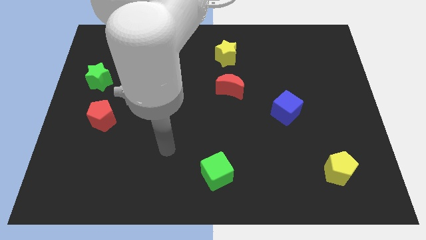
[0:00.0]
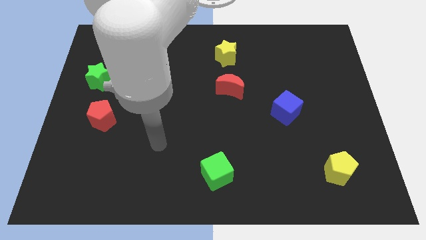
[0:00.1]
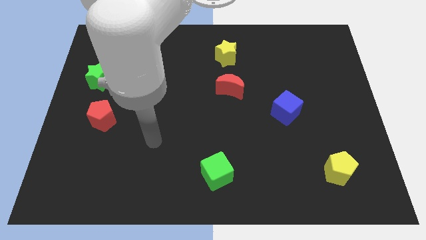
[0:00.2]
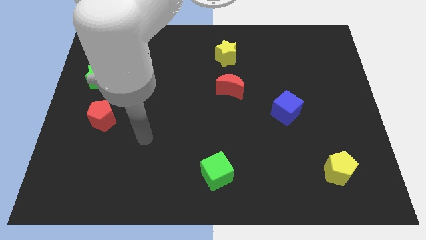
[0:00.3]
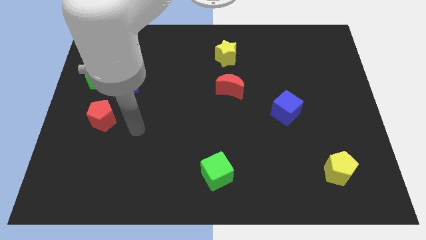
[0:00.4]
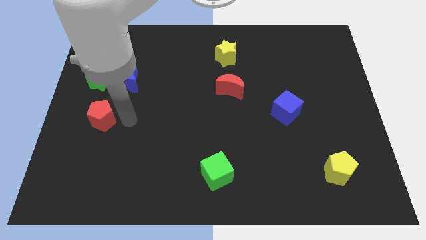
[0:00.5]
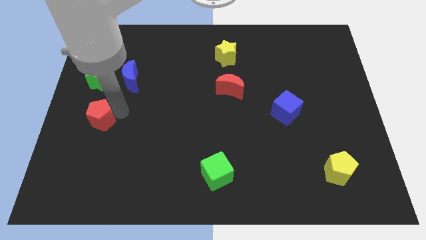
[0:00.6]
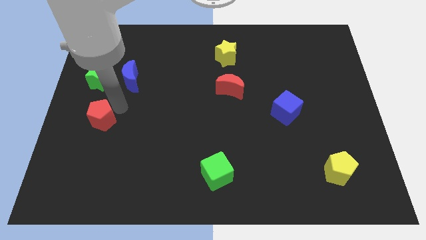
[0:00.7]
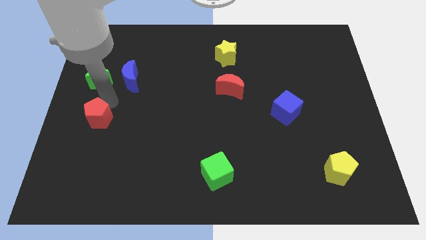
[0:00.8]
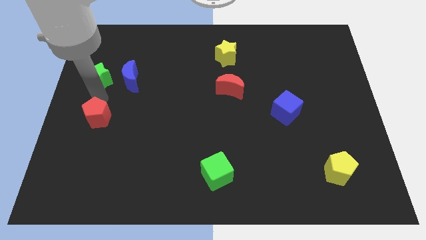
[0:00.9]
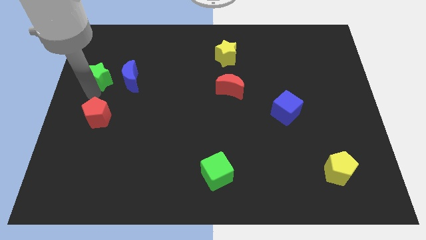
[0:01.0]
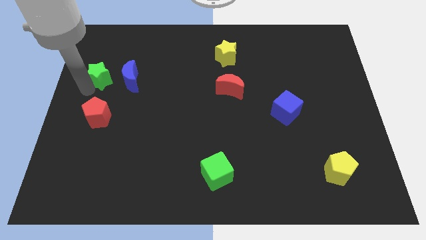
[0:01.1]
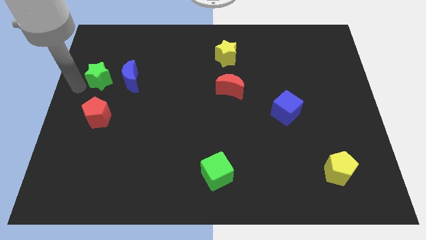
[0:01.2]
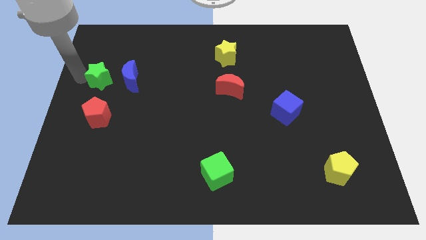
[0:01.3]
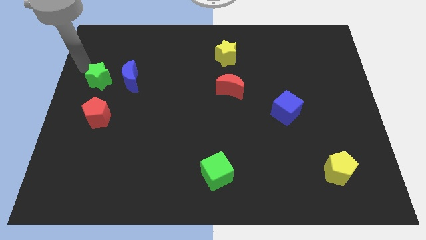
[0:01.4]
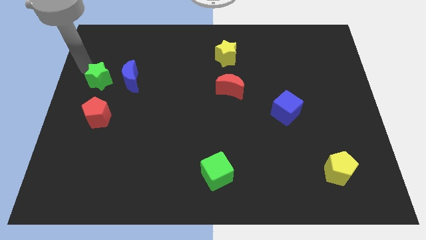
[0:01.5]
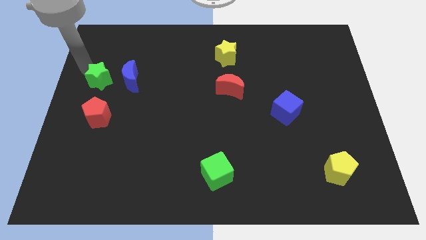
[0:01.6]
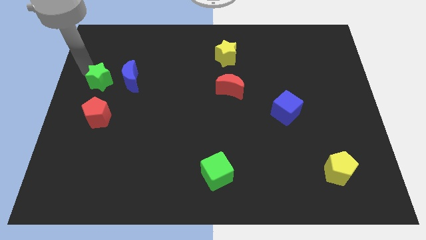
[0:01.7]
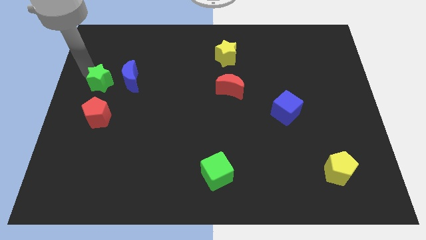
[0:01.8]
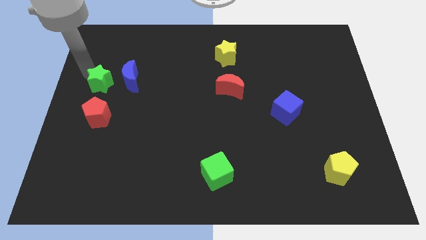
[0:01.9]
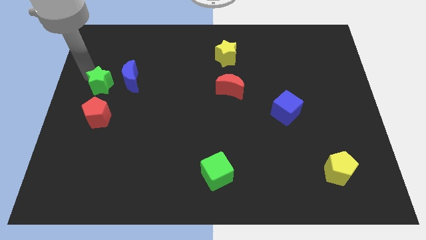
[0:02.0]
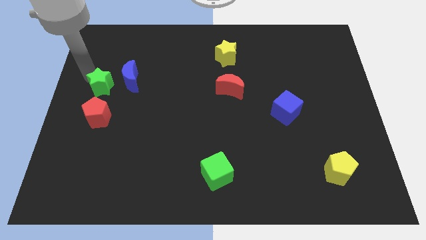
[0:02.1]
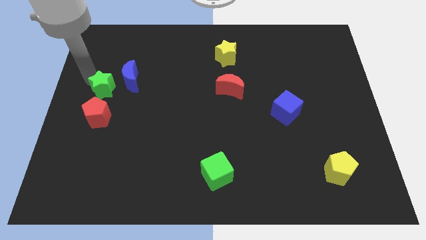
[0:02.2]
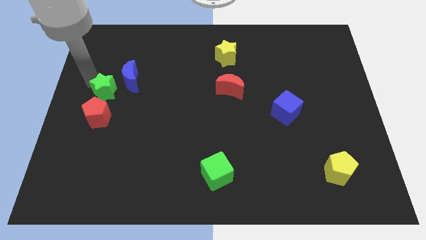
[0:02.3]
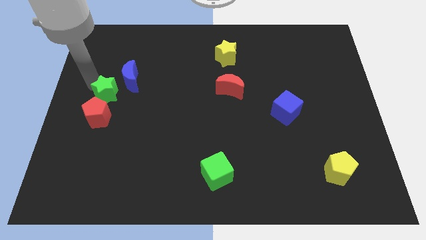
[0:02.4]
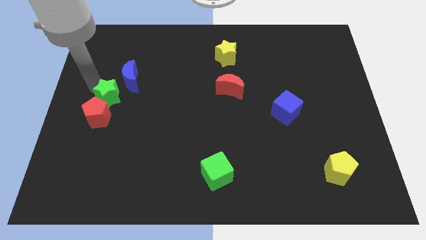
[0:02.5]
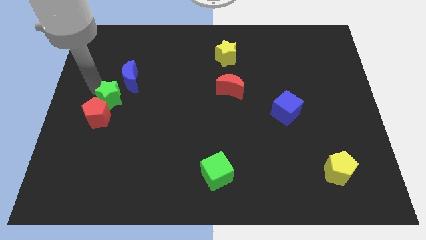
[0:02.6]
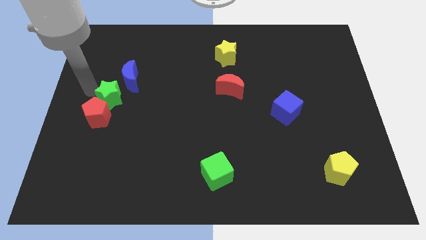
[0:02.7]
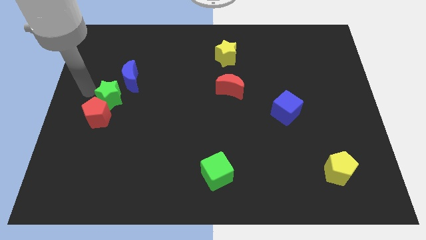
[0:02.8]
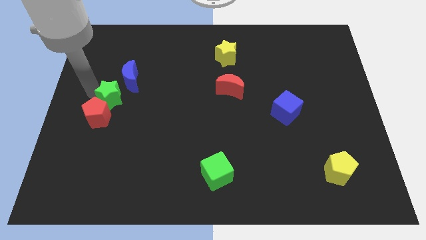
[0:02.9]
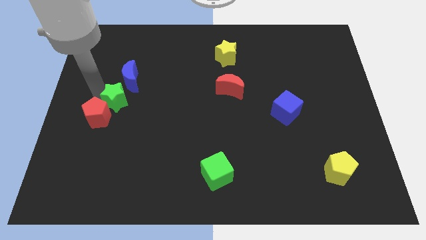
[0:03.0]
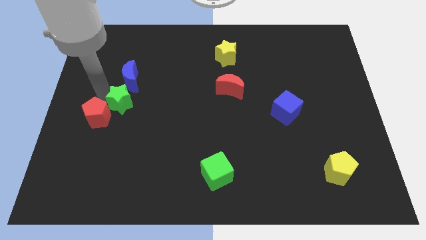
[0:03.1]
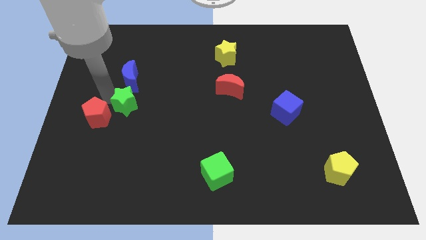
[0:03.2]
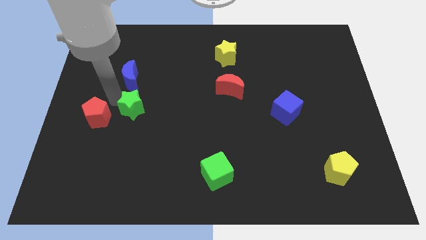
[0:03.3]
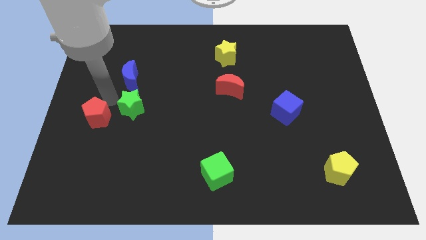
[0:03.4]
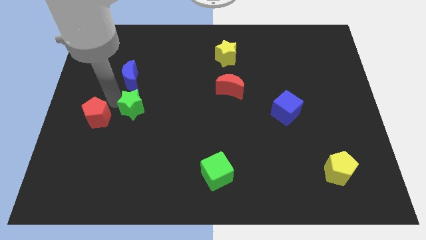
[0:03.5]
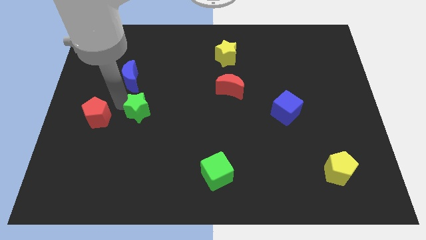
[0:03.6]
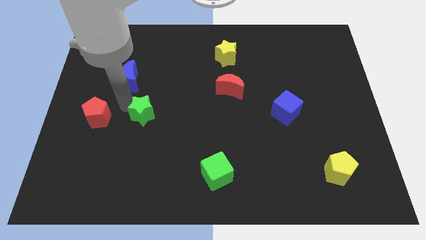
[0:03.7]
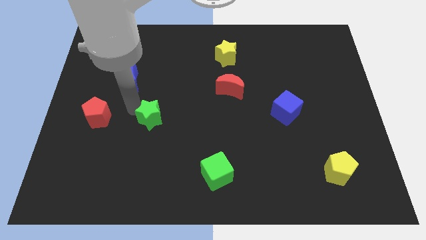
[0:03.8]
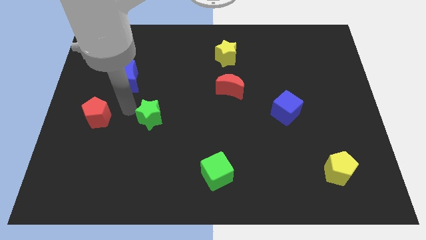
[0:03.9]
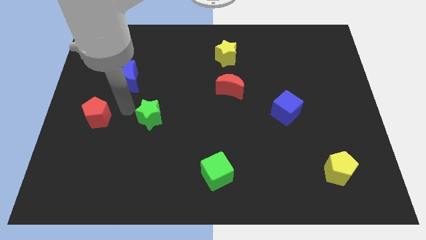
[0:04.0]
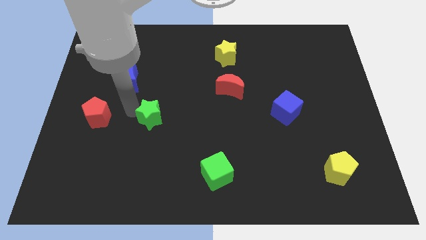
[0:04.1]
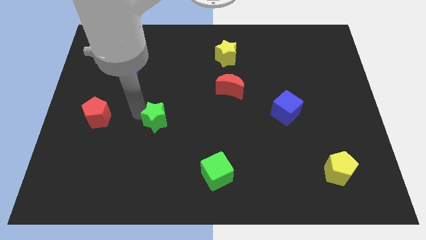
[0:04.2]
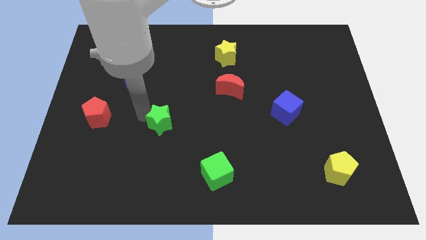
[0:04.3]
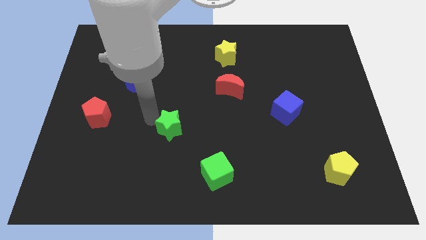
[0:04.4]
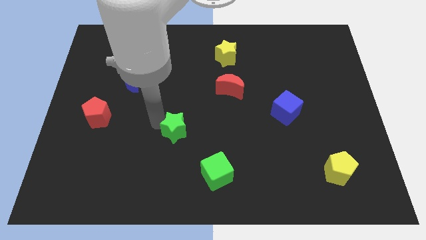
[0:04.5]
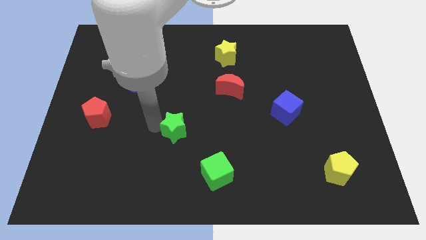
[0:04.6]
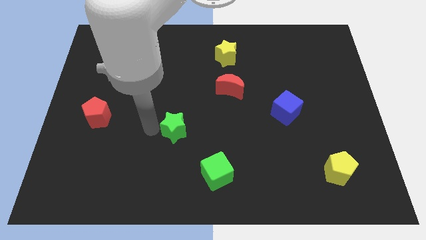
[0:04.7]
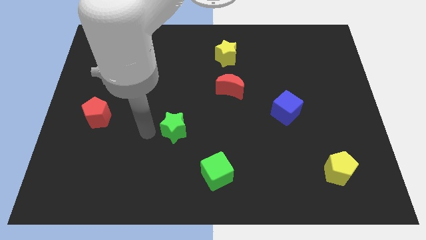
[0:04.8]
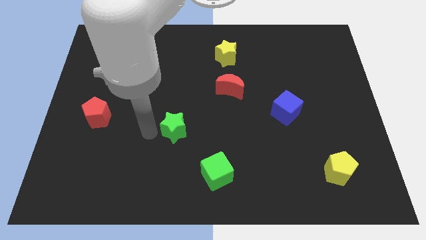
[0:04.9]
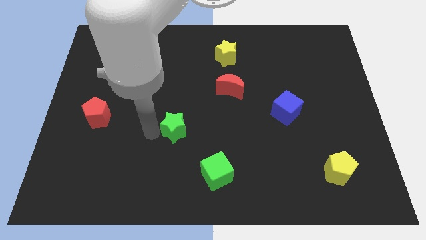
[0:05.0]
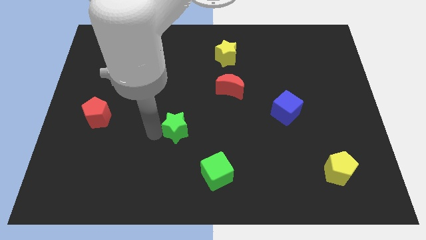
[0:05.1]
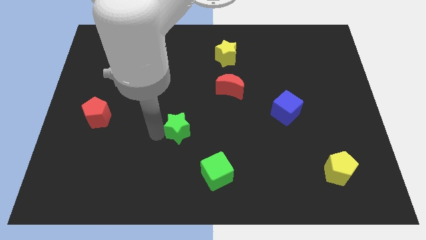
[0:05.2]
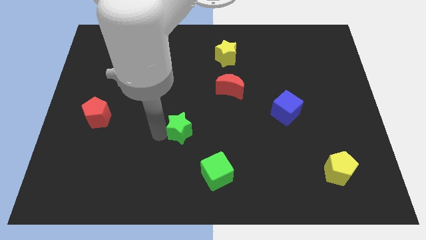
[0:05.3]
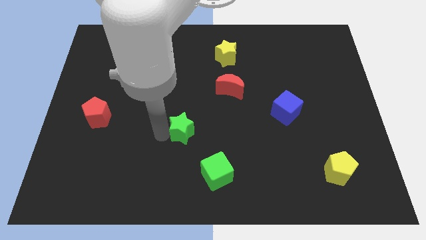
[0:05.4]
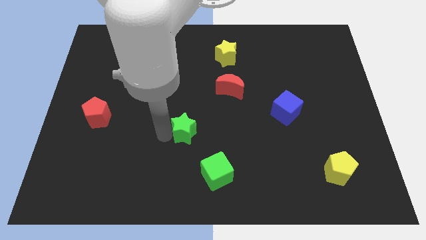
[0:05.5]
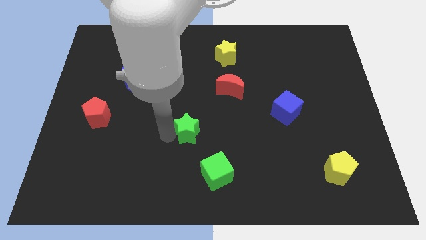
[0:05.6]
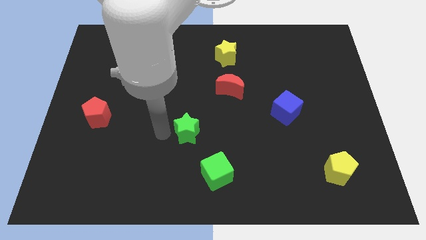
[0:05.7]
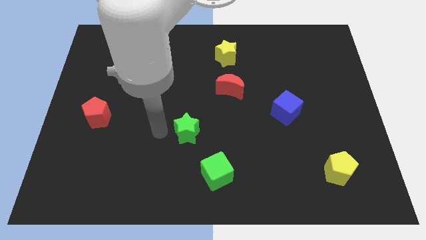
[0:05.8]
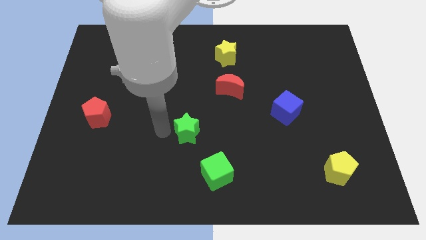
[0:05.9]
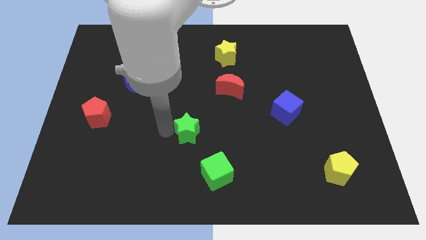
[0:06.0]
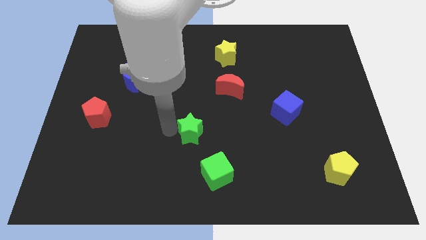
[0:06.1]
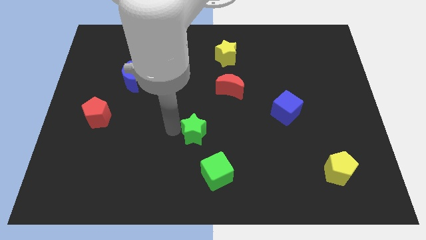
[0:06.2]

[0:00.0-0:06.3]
move the green star above the green cube

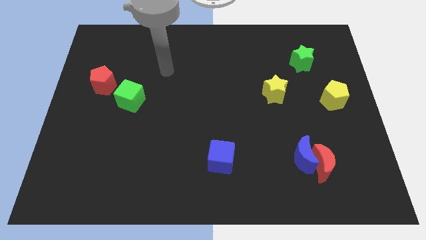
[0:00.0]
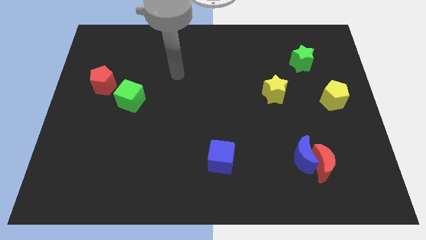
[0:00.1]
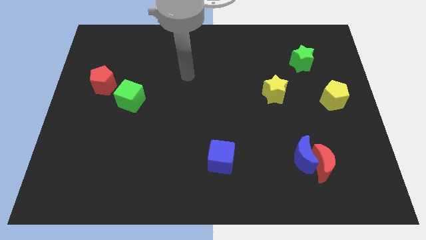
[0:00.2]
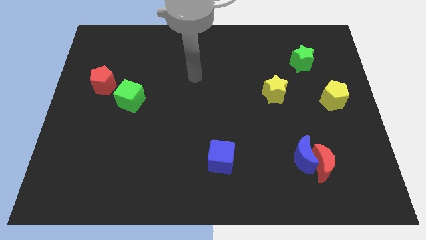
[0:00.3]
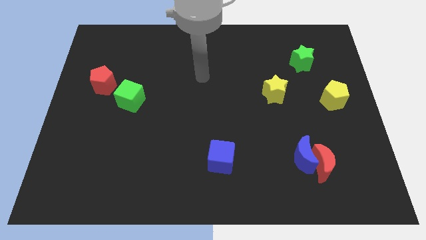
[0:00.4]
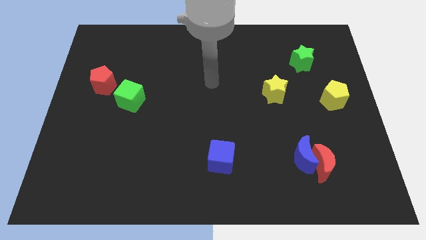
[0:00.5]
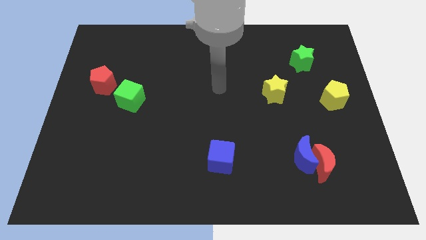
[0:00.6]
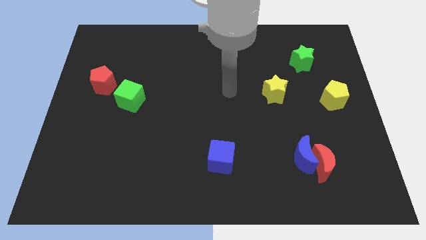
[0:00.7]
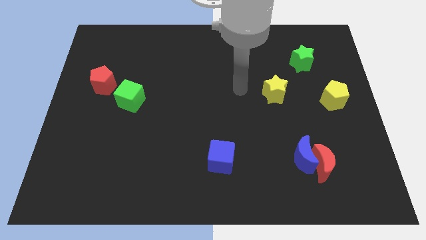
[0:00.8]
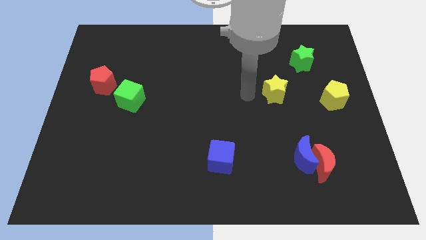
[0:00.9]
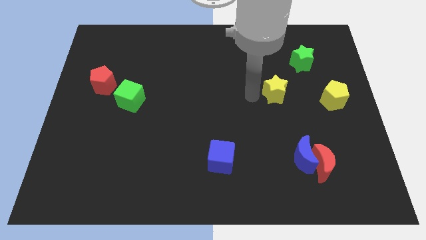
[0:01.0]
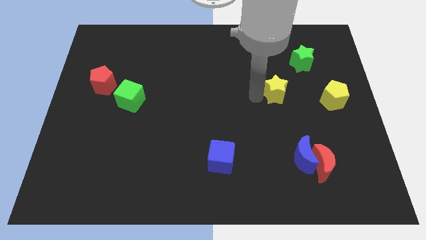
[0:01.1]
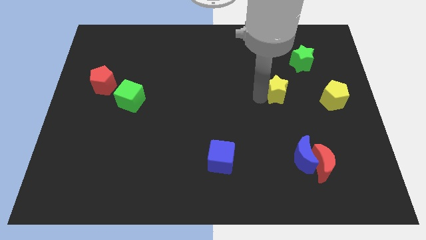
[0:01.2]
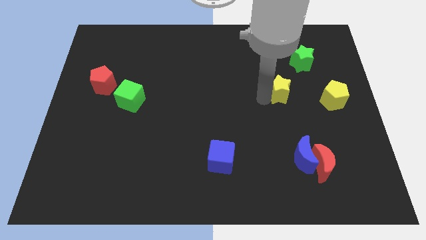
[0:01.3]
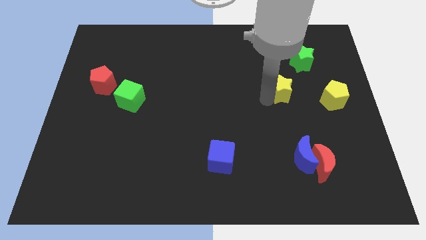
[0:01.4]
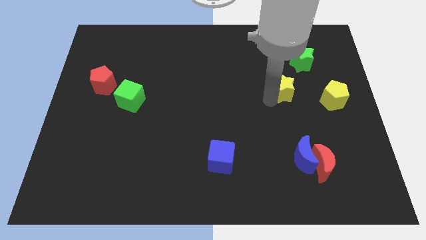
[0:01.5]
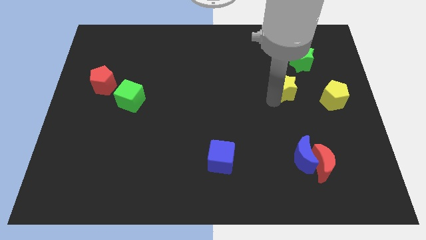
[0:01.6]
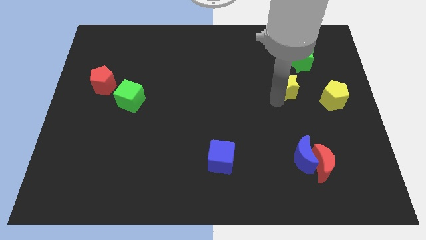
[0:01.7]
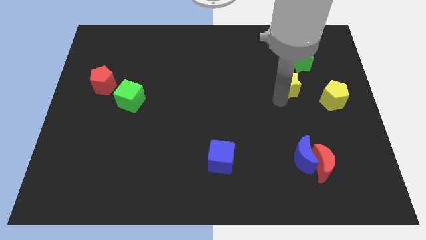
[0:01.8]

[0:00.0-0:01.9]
slide the yellow star to the bottom side of the green star
